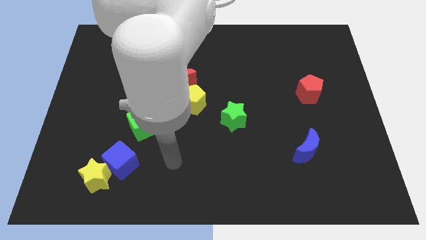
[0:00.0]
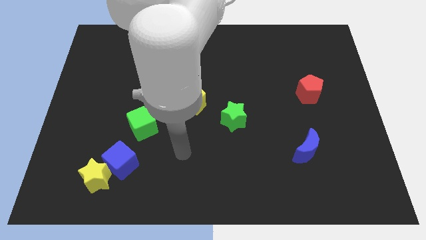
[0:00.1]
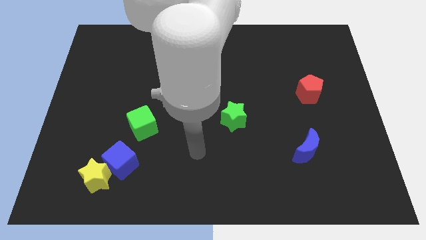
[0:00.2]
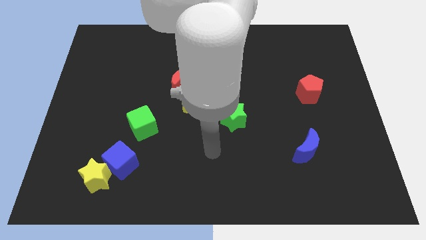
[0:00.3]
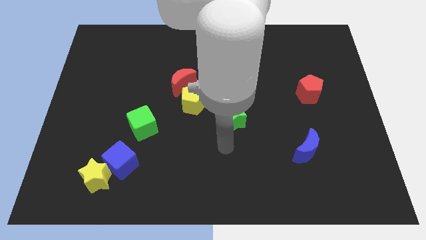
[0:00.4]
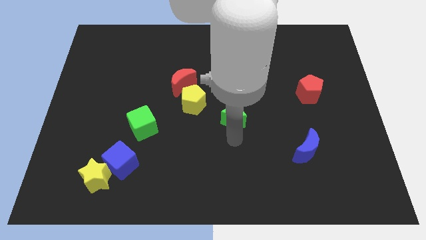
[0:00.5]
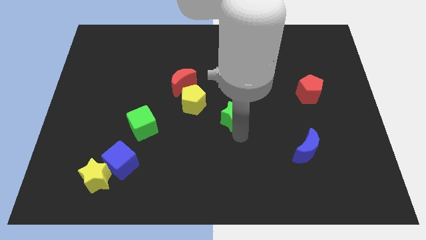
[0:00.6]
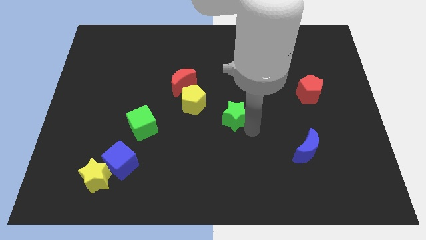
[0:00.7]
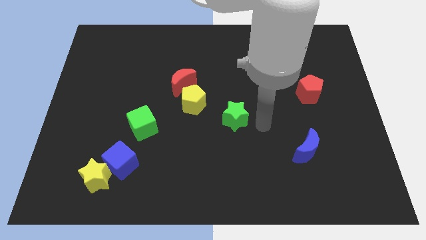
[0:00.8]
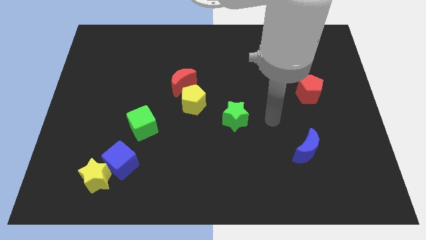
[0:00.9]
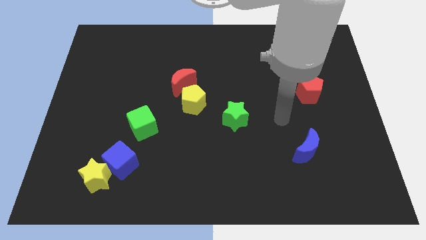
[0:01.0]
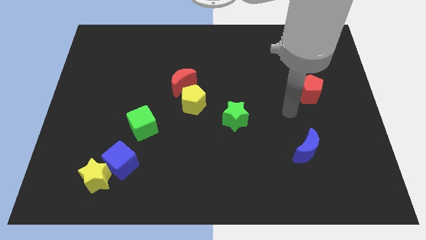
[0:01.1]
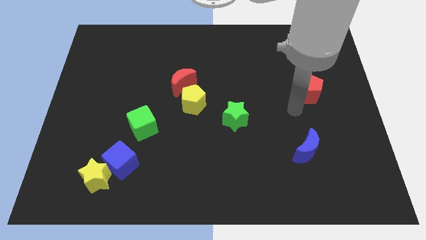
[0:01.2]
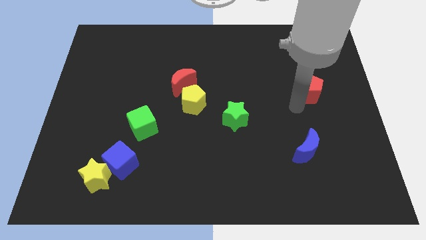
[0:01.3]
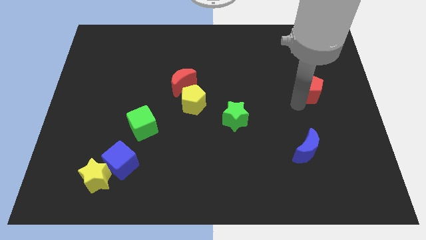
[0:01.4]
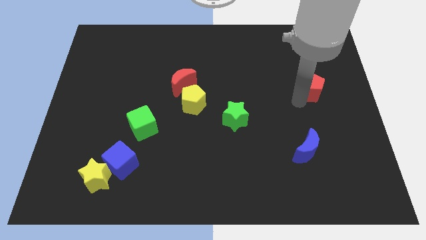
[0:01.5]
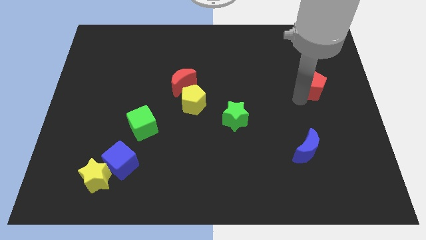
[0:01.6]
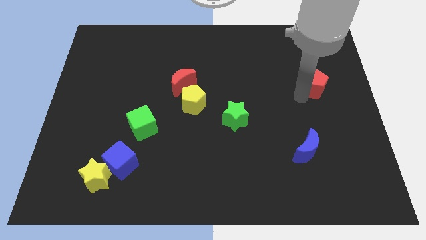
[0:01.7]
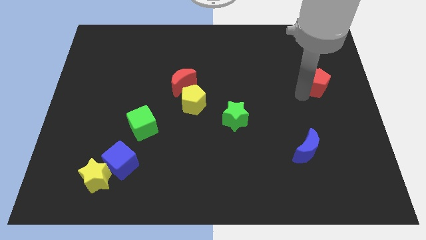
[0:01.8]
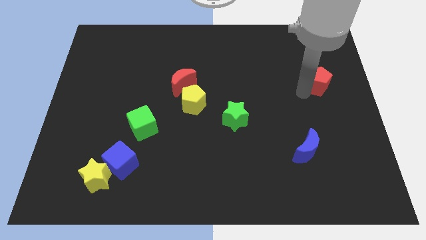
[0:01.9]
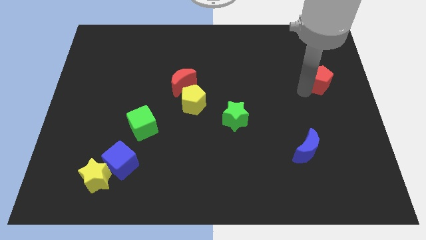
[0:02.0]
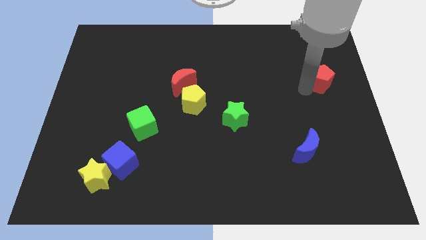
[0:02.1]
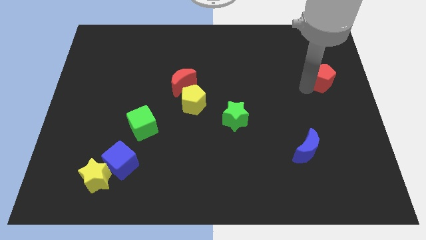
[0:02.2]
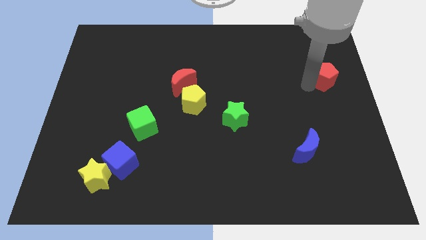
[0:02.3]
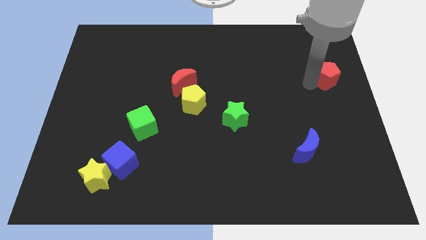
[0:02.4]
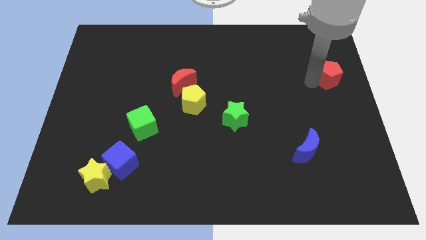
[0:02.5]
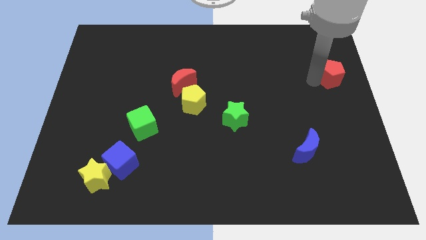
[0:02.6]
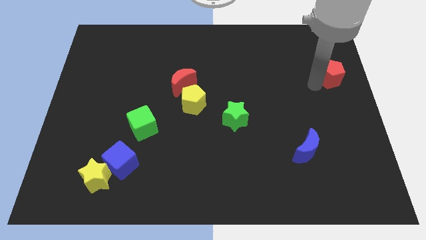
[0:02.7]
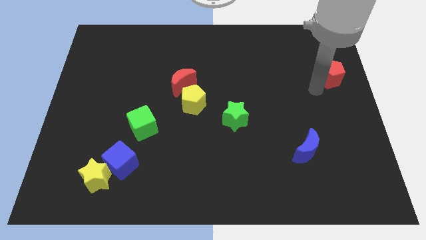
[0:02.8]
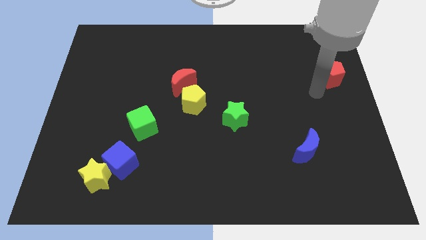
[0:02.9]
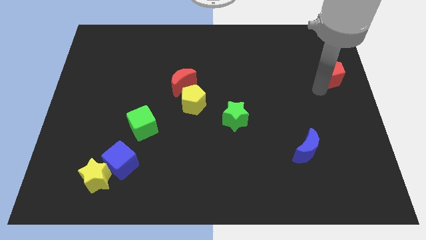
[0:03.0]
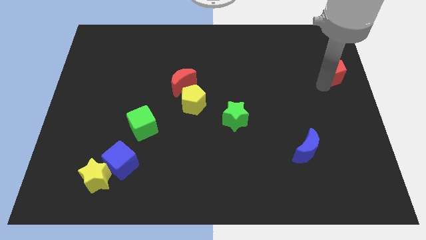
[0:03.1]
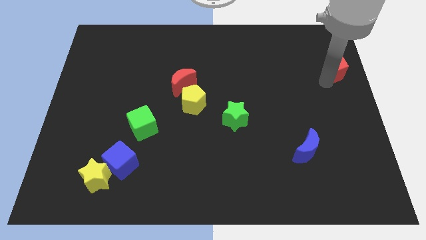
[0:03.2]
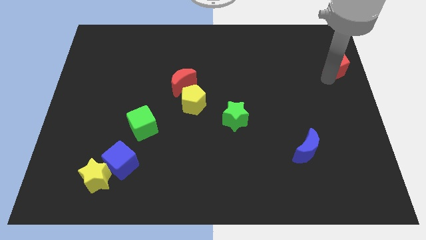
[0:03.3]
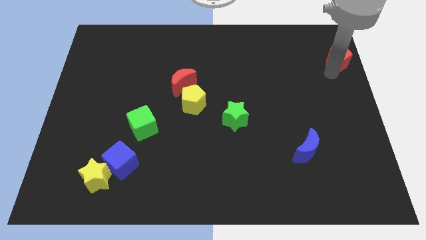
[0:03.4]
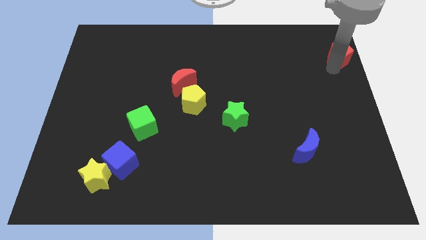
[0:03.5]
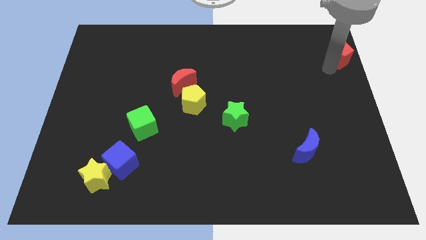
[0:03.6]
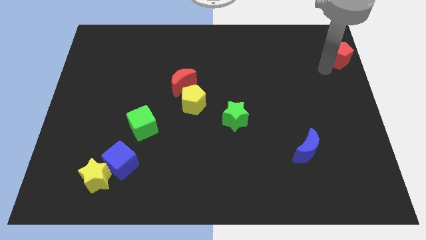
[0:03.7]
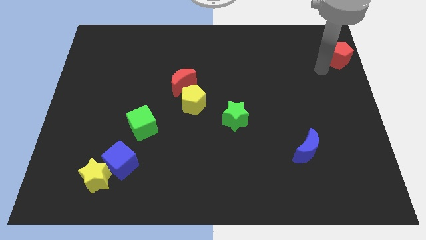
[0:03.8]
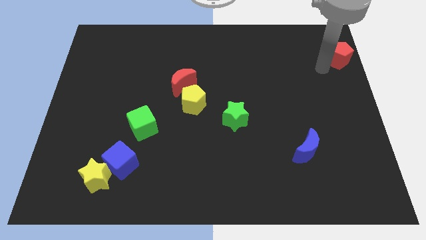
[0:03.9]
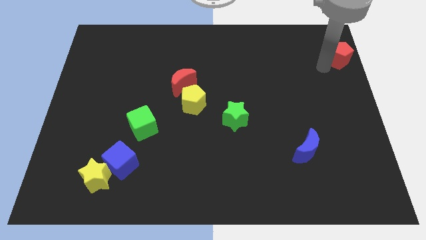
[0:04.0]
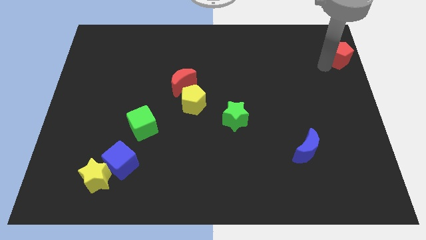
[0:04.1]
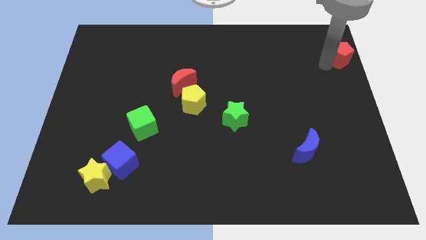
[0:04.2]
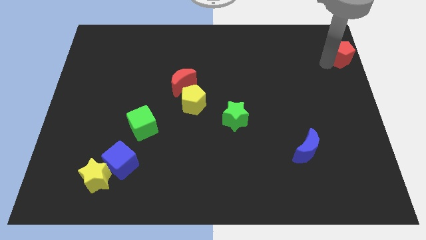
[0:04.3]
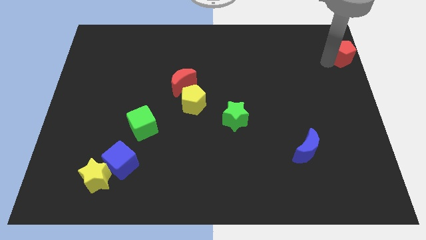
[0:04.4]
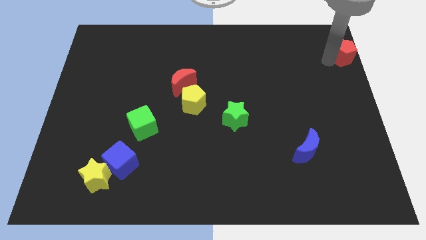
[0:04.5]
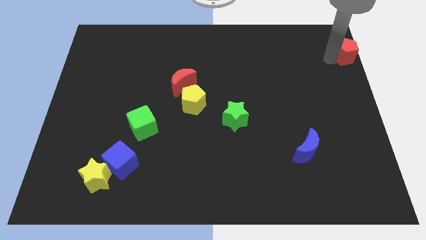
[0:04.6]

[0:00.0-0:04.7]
put the red pentagon to the top right

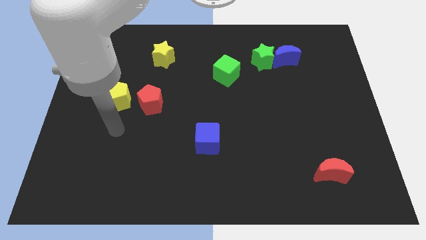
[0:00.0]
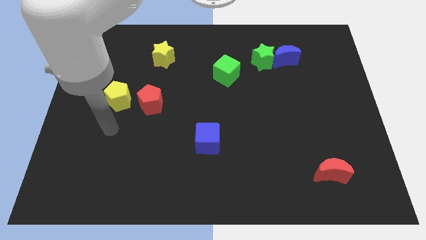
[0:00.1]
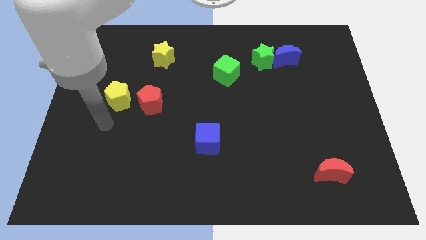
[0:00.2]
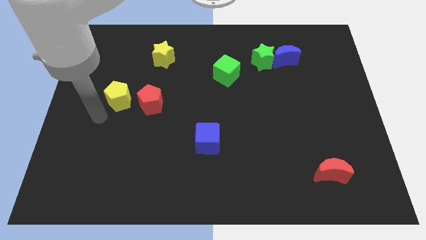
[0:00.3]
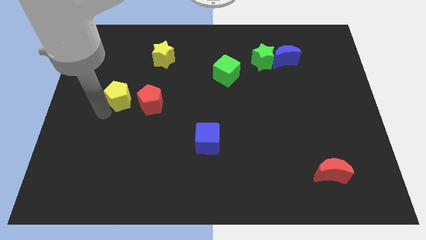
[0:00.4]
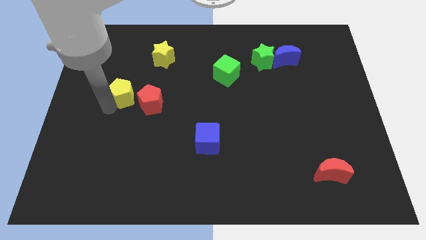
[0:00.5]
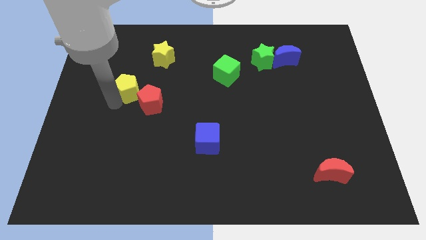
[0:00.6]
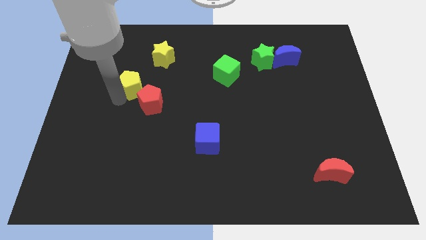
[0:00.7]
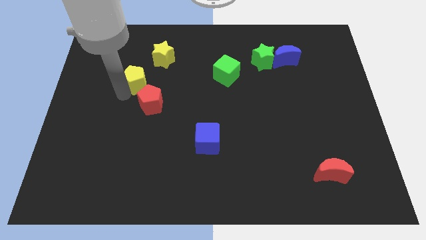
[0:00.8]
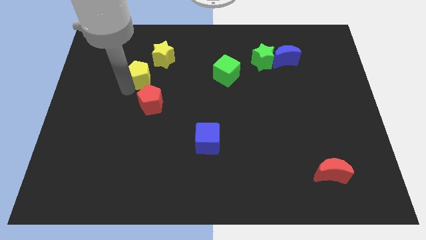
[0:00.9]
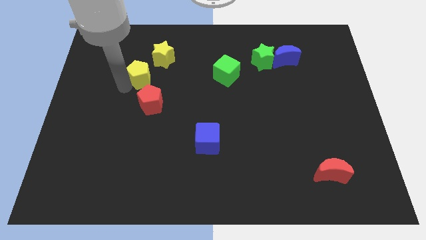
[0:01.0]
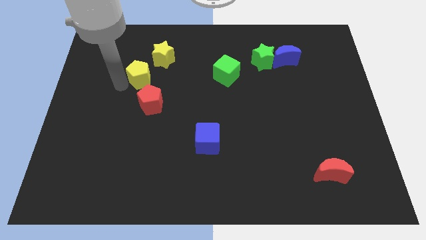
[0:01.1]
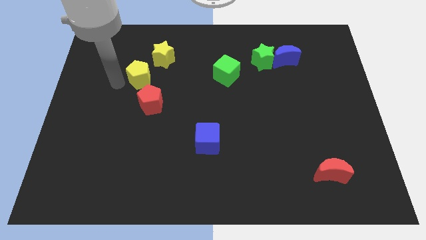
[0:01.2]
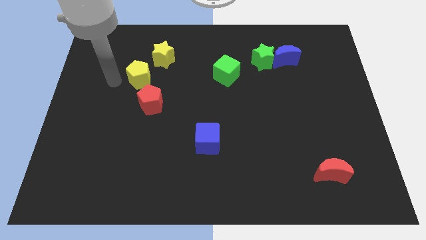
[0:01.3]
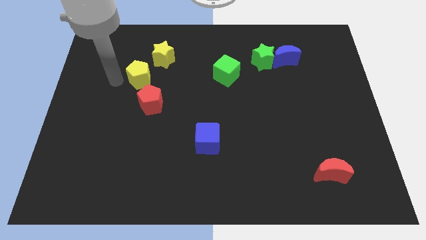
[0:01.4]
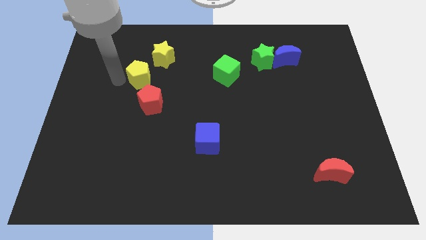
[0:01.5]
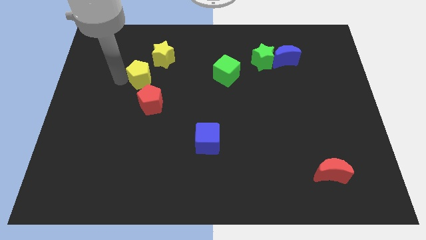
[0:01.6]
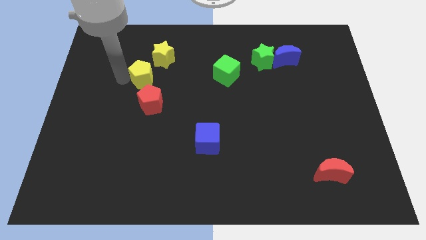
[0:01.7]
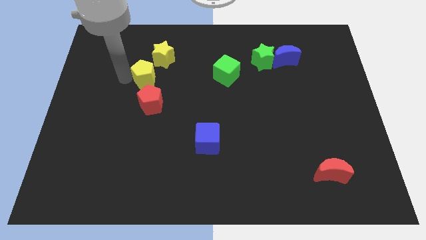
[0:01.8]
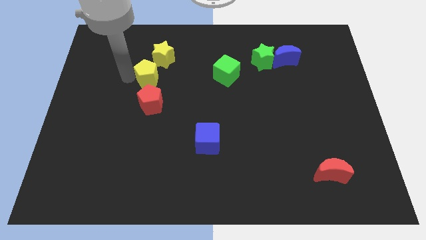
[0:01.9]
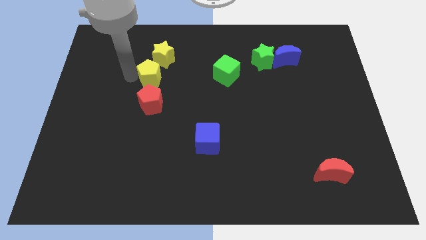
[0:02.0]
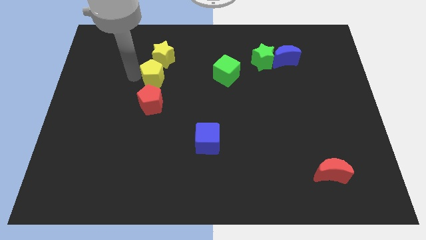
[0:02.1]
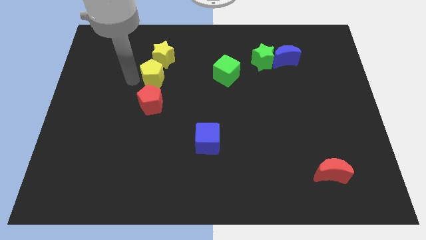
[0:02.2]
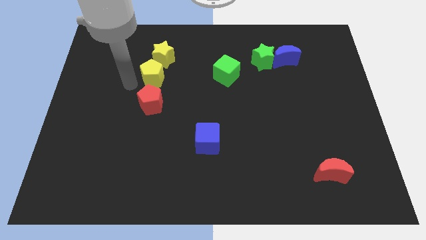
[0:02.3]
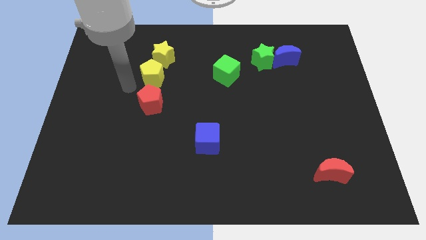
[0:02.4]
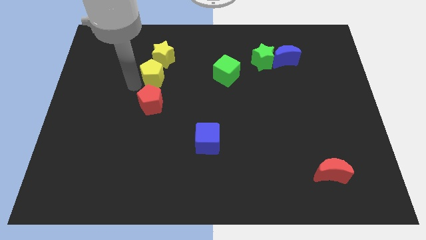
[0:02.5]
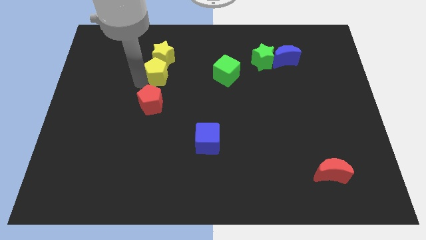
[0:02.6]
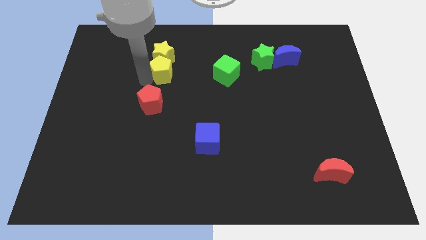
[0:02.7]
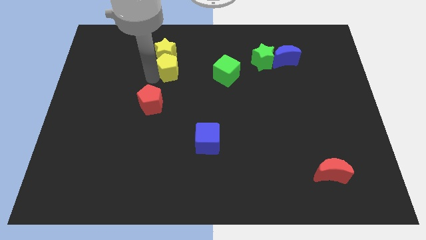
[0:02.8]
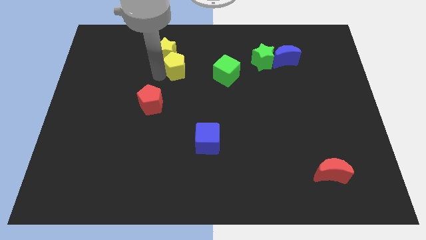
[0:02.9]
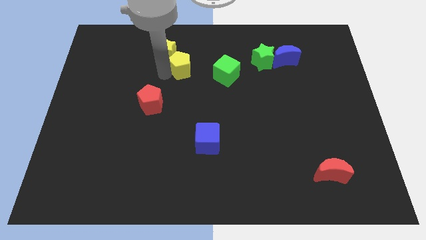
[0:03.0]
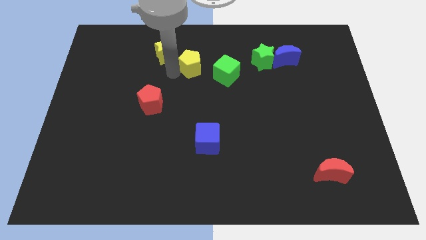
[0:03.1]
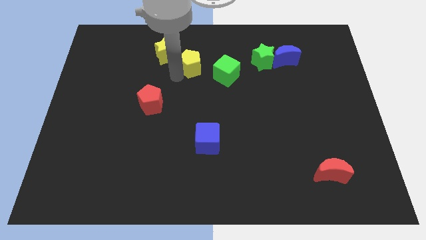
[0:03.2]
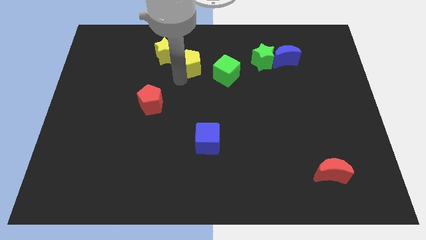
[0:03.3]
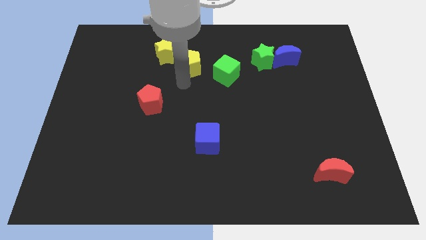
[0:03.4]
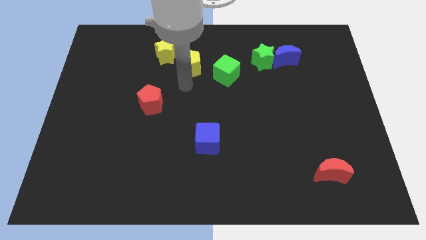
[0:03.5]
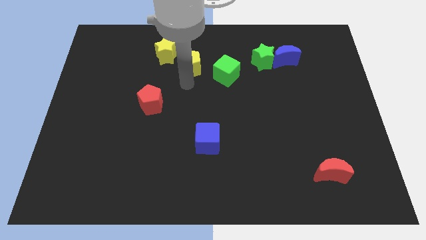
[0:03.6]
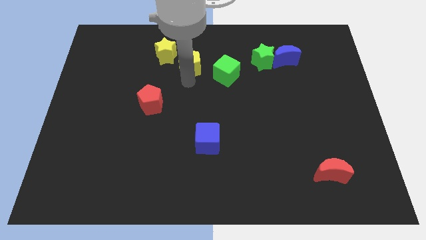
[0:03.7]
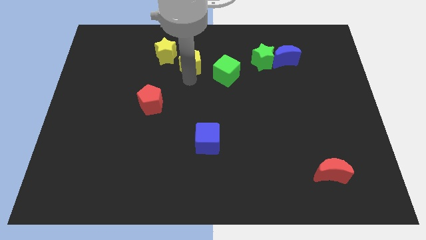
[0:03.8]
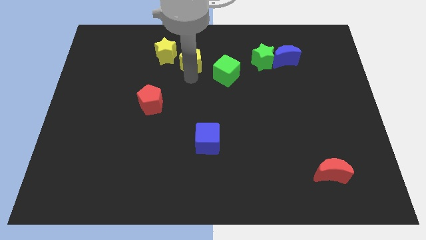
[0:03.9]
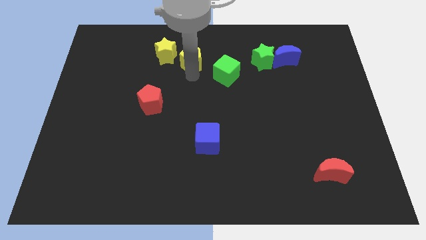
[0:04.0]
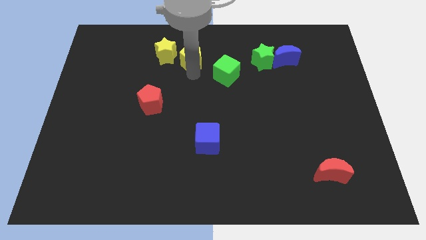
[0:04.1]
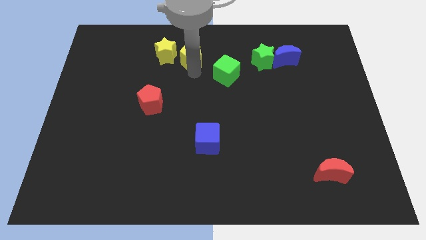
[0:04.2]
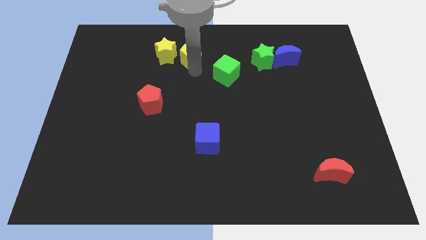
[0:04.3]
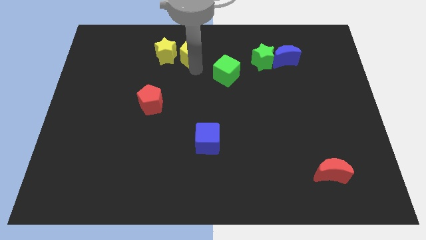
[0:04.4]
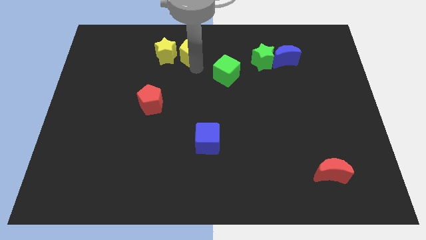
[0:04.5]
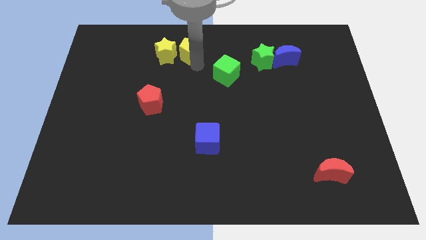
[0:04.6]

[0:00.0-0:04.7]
put the yellow pentagon to the top side
